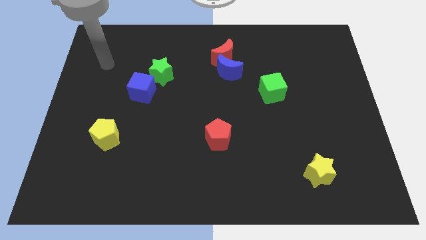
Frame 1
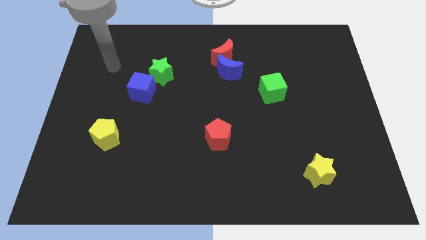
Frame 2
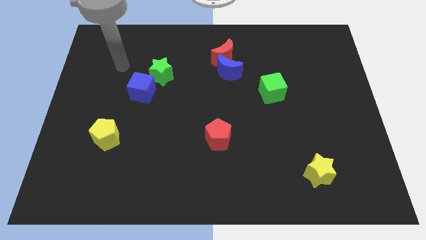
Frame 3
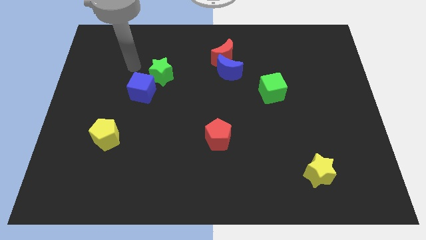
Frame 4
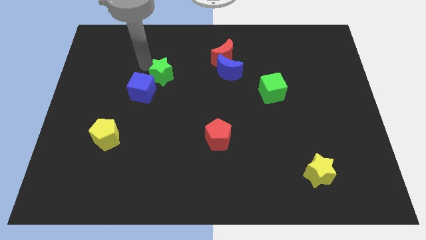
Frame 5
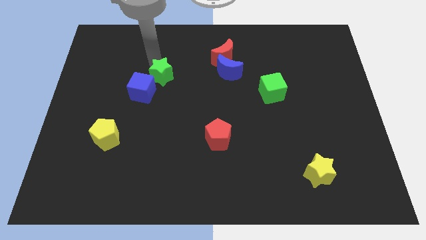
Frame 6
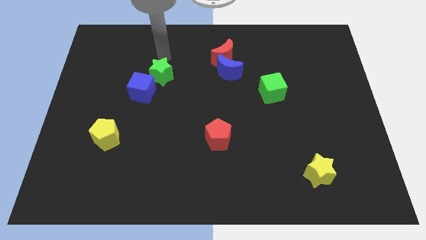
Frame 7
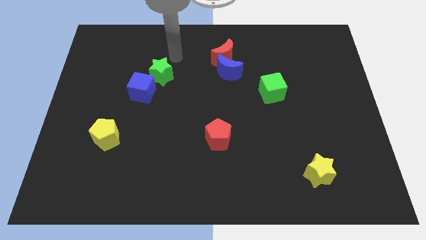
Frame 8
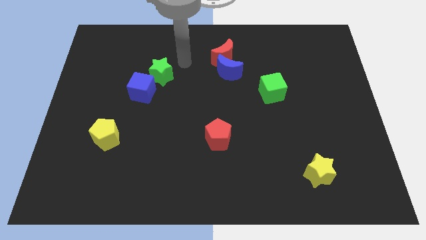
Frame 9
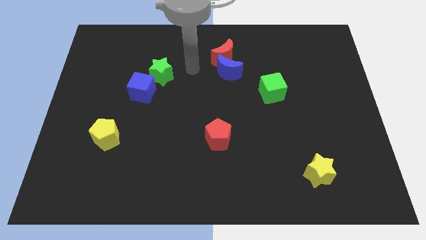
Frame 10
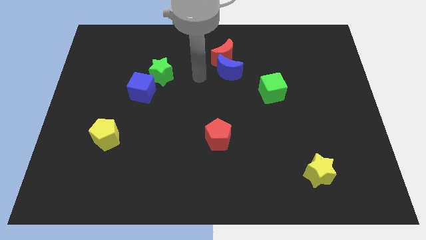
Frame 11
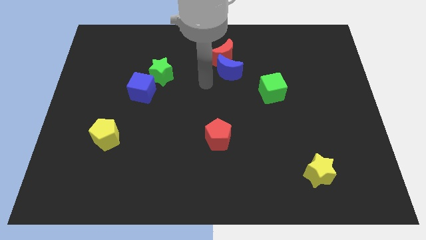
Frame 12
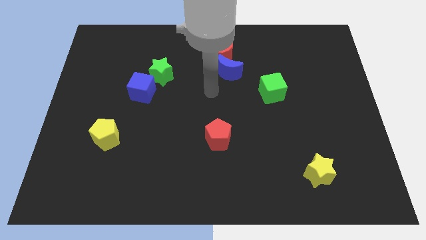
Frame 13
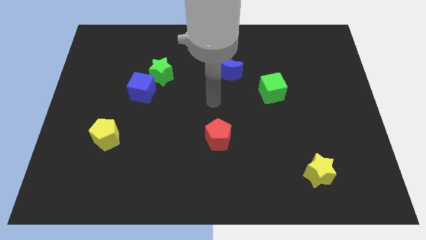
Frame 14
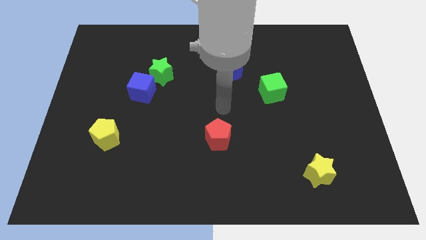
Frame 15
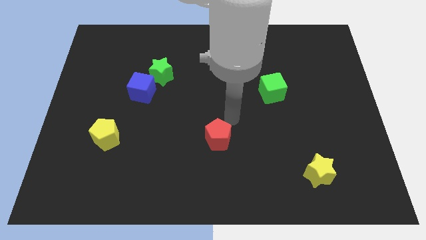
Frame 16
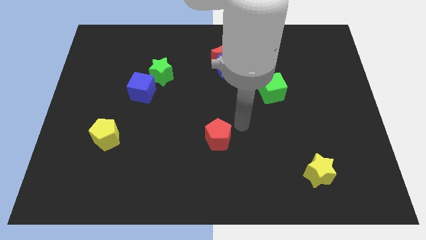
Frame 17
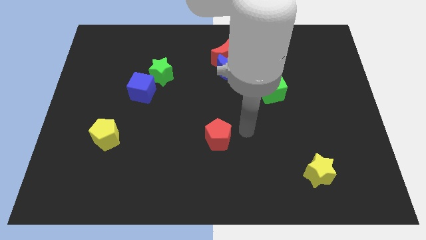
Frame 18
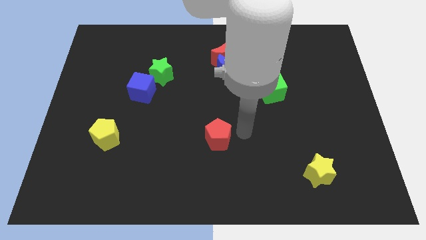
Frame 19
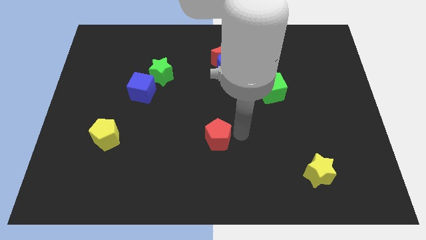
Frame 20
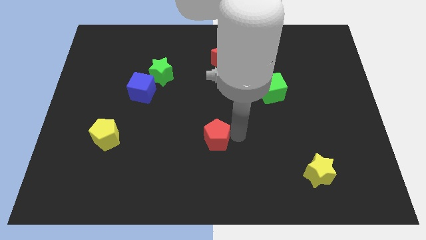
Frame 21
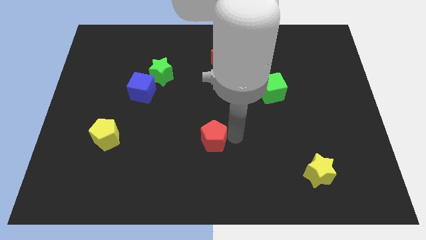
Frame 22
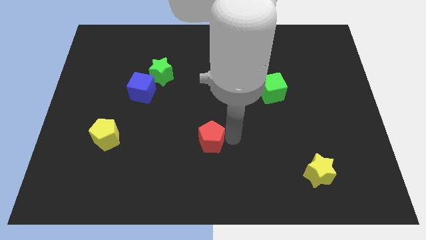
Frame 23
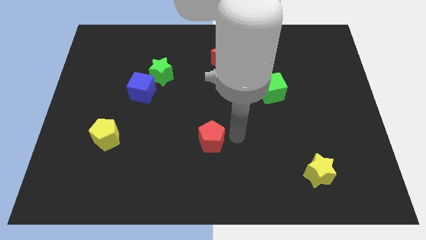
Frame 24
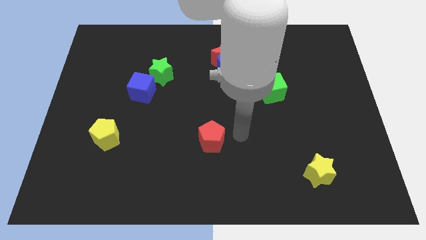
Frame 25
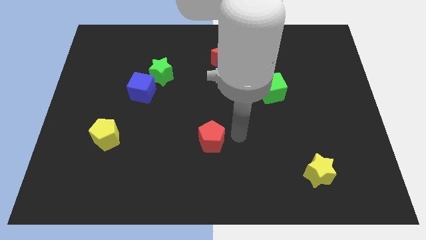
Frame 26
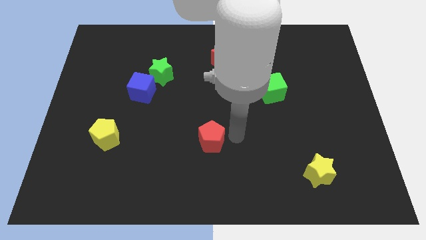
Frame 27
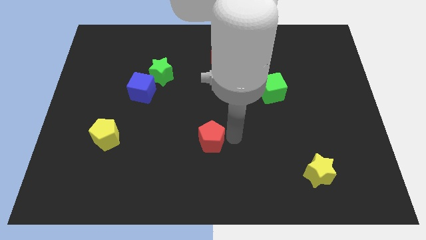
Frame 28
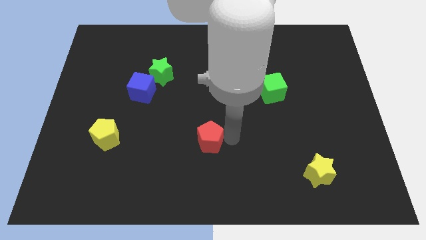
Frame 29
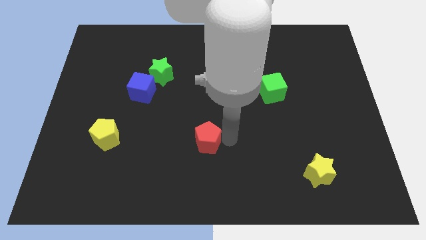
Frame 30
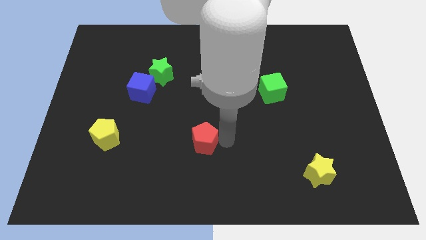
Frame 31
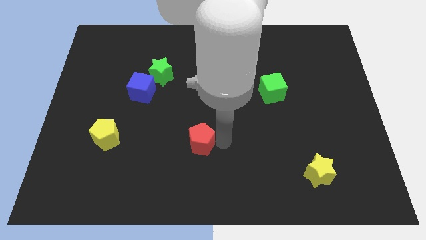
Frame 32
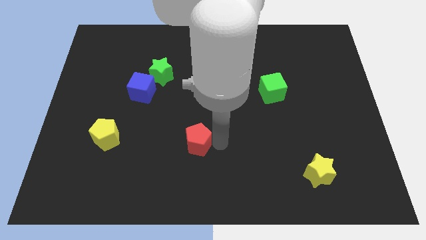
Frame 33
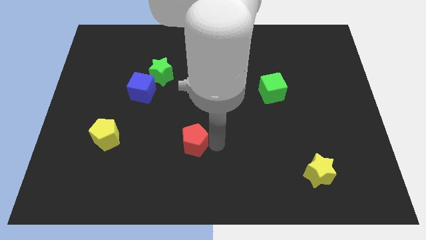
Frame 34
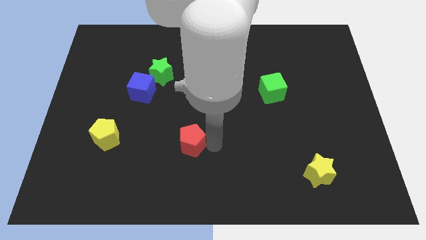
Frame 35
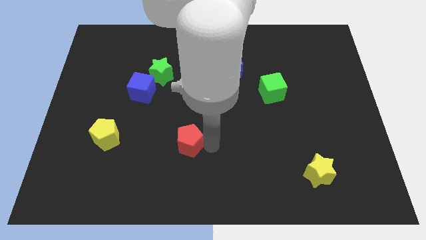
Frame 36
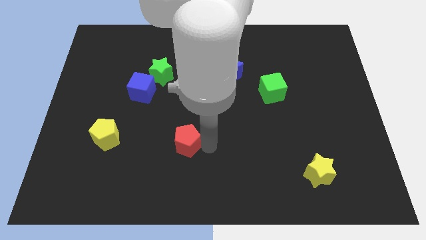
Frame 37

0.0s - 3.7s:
slide the red pentagon to the left a bit

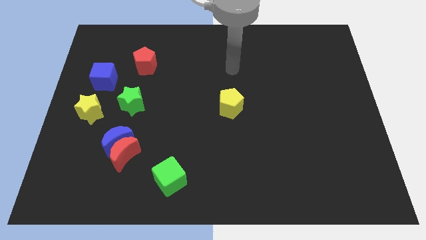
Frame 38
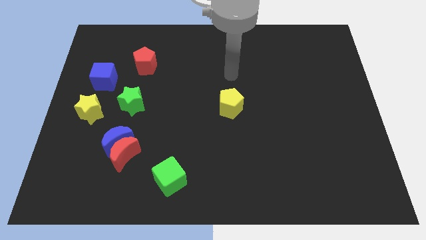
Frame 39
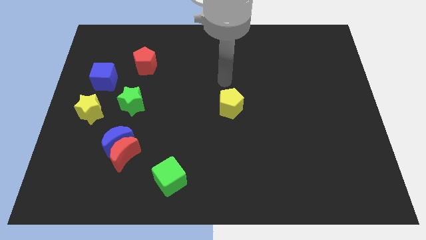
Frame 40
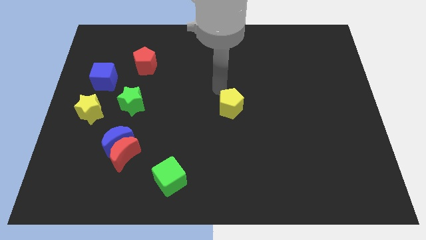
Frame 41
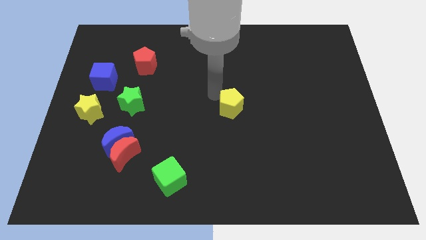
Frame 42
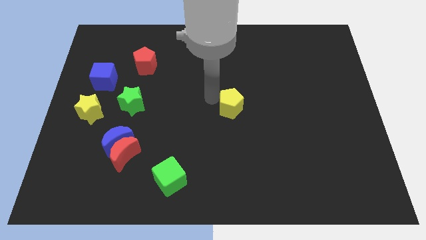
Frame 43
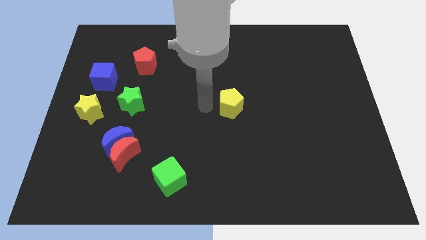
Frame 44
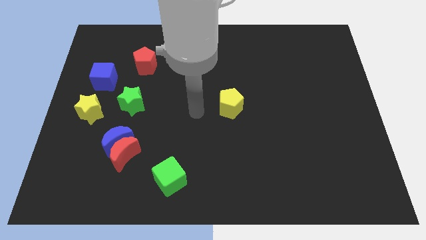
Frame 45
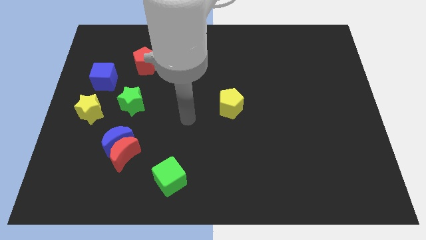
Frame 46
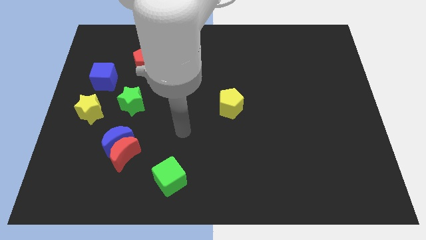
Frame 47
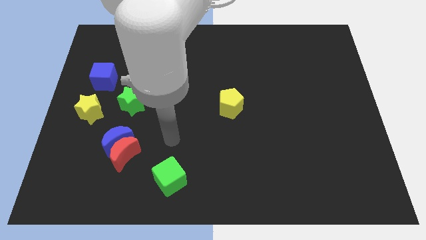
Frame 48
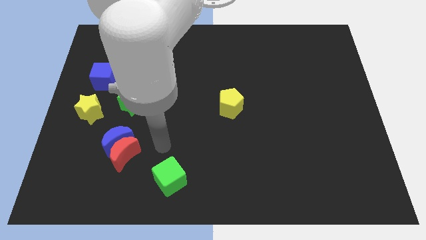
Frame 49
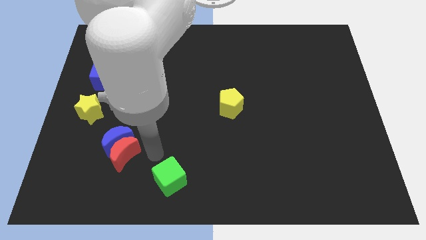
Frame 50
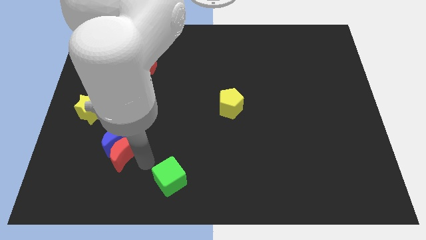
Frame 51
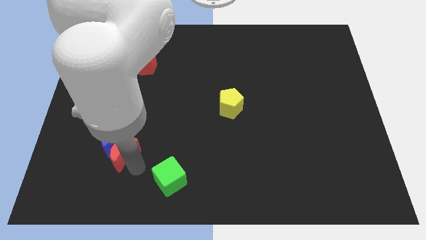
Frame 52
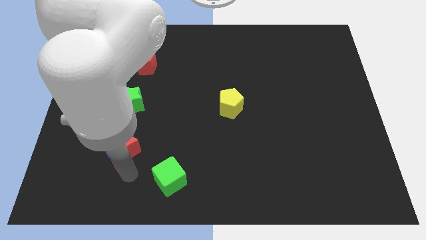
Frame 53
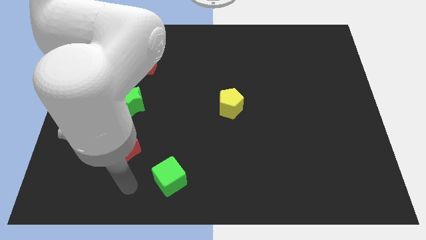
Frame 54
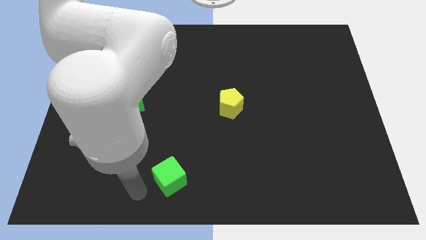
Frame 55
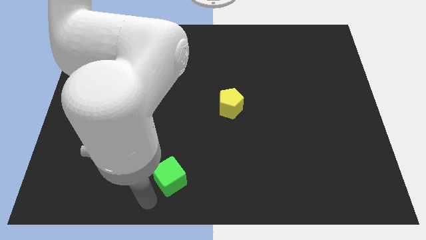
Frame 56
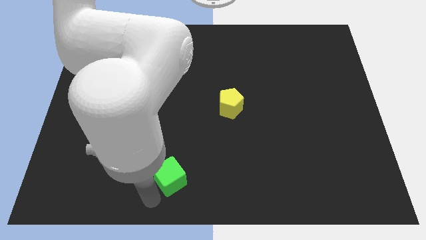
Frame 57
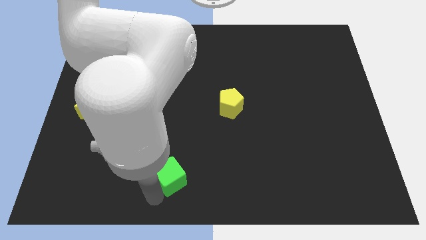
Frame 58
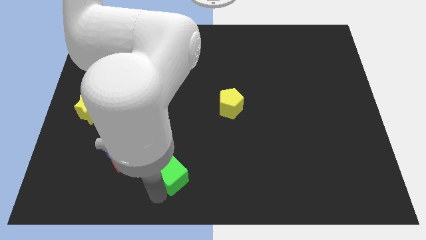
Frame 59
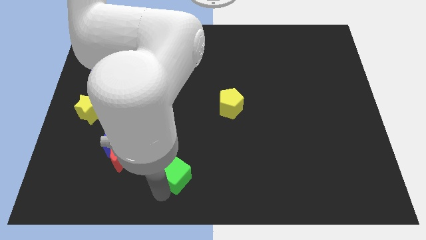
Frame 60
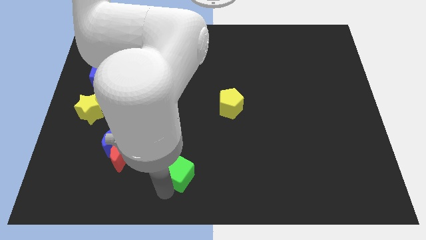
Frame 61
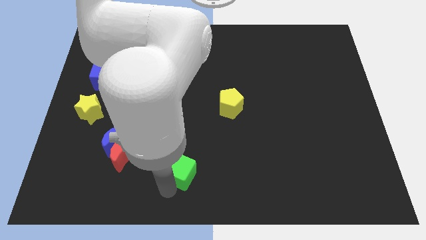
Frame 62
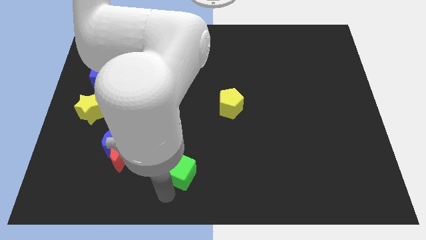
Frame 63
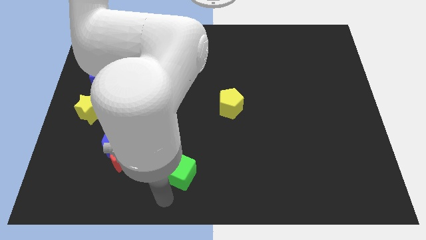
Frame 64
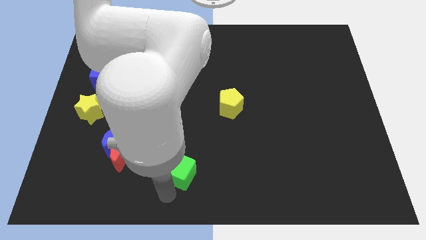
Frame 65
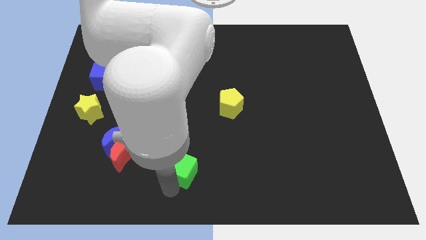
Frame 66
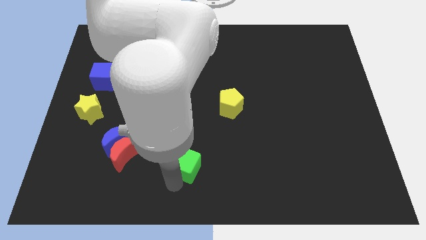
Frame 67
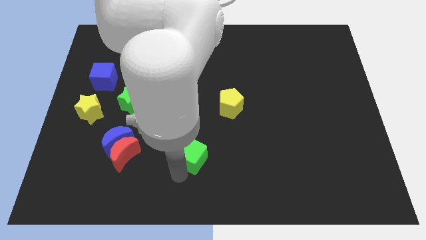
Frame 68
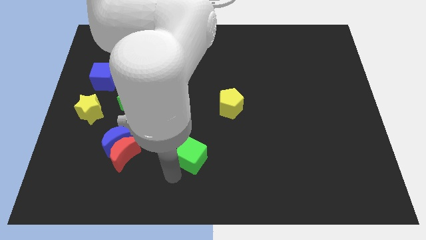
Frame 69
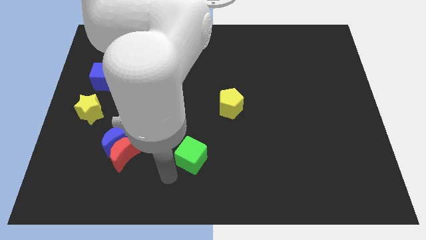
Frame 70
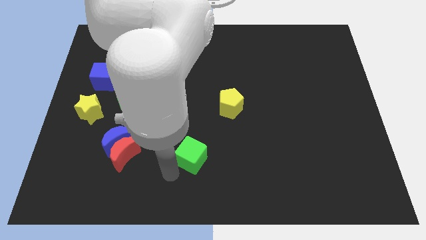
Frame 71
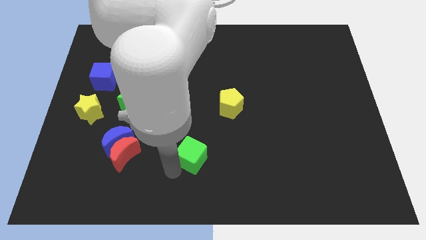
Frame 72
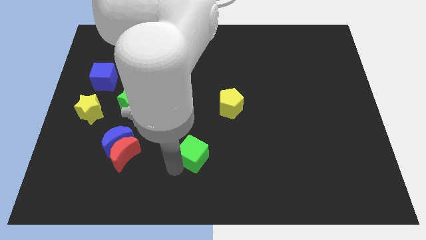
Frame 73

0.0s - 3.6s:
slightly push the green cube up and then right

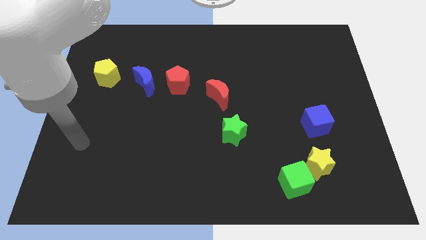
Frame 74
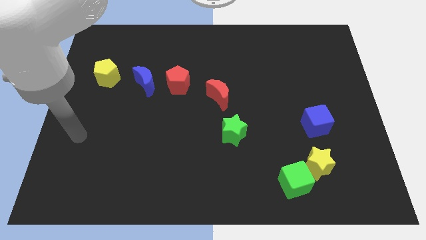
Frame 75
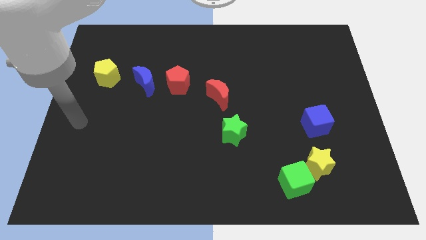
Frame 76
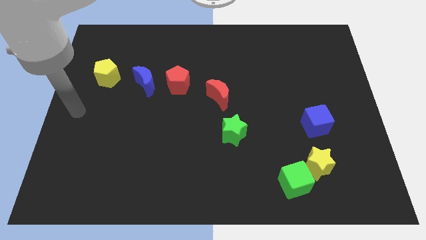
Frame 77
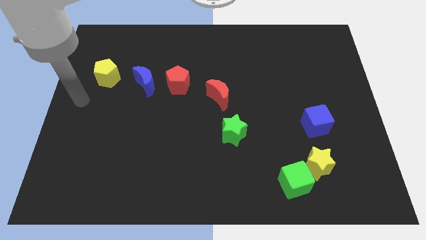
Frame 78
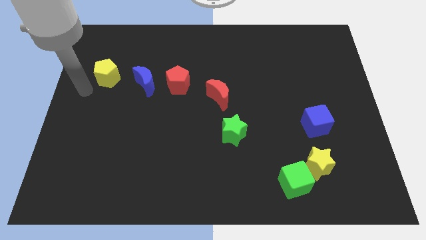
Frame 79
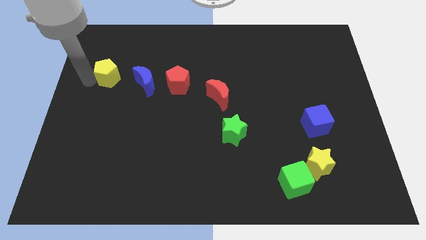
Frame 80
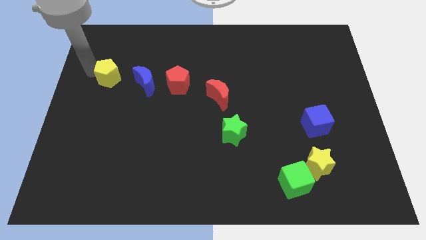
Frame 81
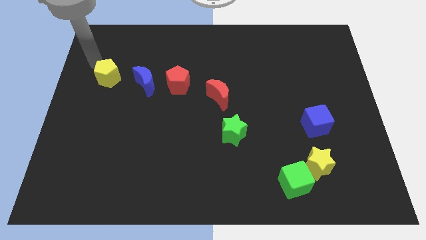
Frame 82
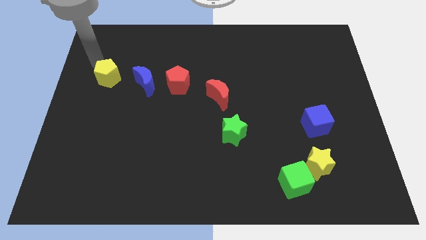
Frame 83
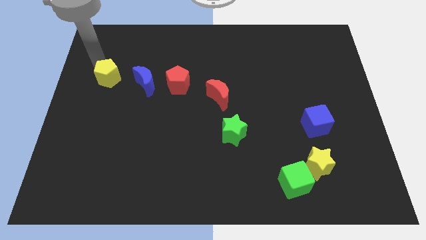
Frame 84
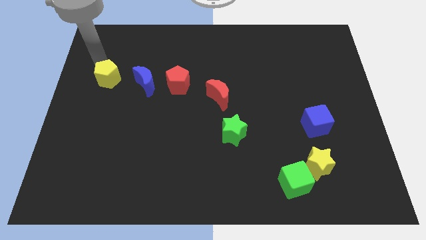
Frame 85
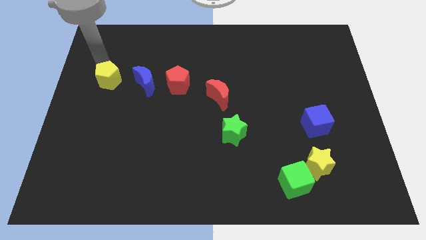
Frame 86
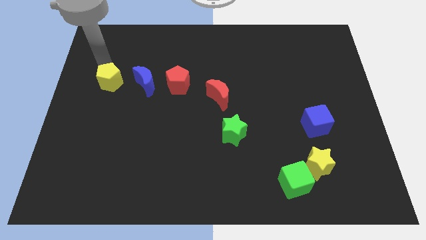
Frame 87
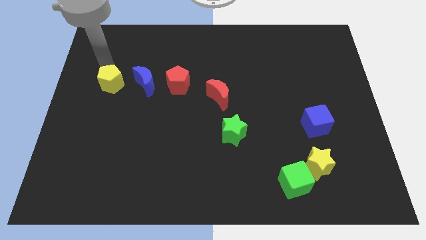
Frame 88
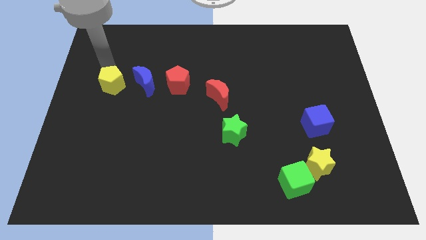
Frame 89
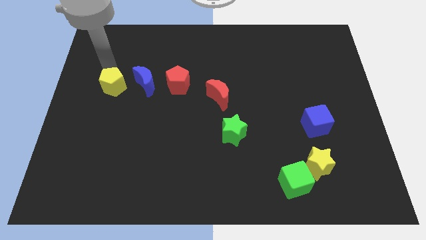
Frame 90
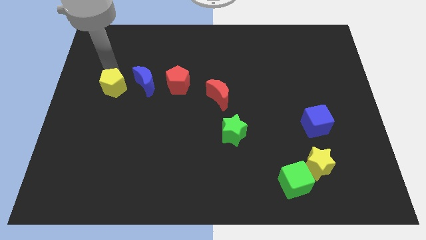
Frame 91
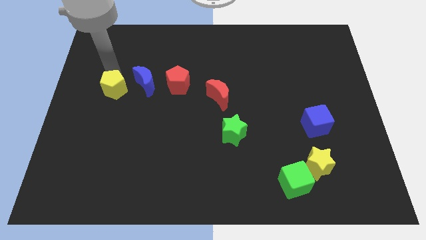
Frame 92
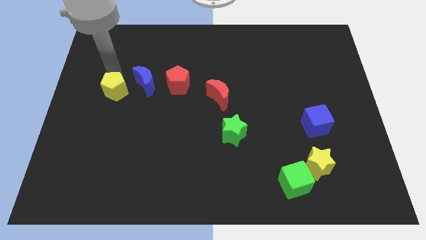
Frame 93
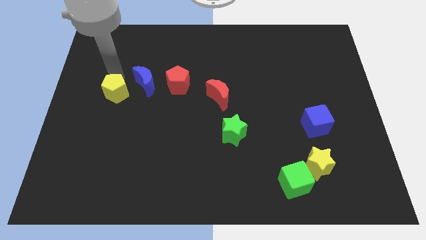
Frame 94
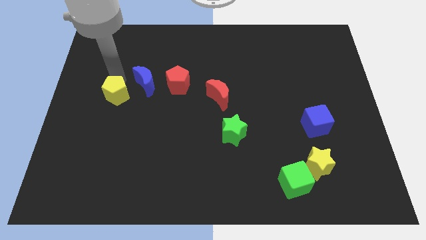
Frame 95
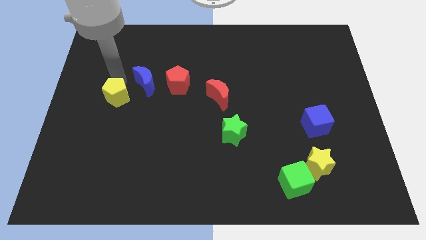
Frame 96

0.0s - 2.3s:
move the yellow pentagon down and then right a little
